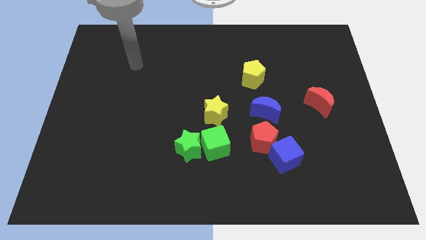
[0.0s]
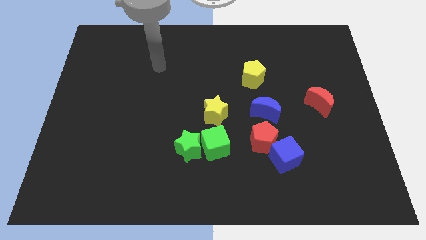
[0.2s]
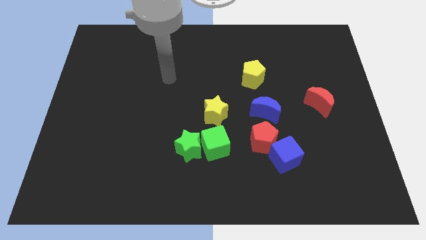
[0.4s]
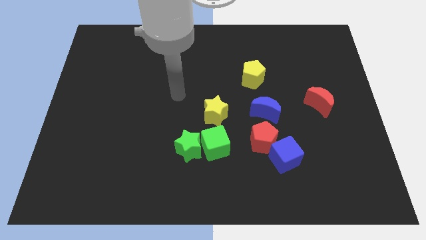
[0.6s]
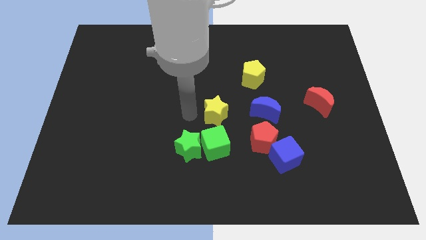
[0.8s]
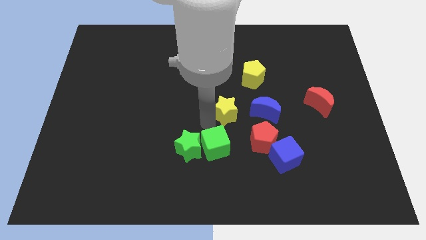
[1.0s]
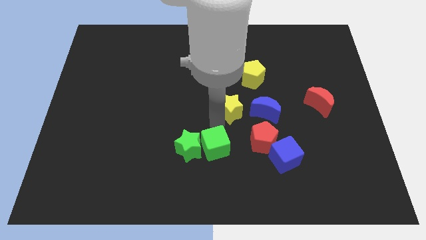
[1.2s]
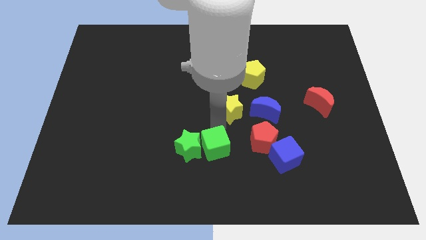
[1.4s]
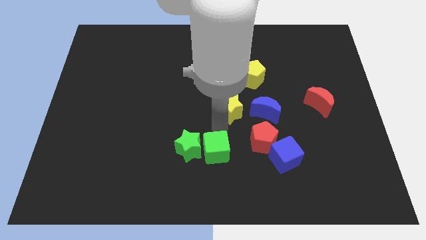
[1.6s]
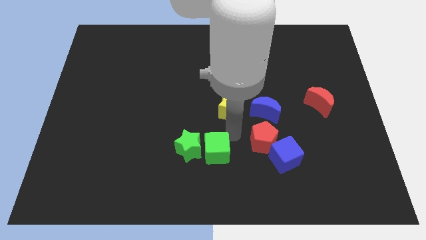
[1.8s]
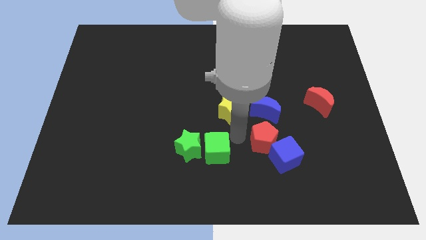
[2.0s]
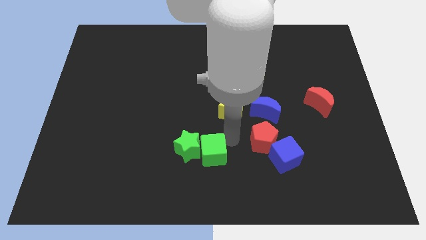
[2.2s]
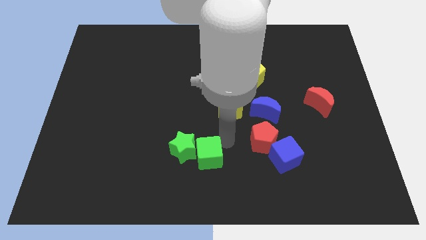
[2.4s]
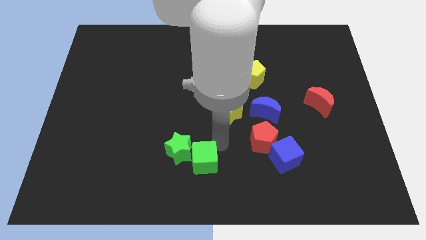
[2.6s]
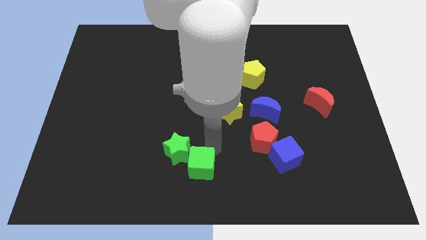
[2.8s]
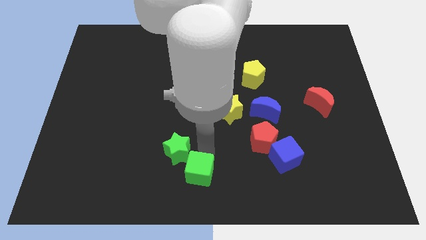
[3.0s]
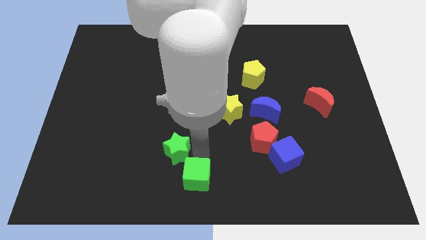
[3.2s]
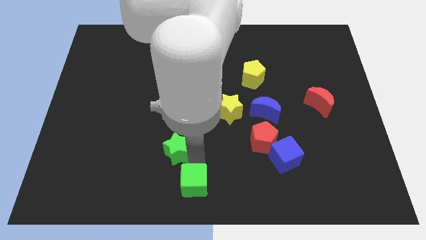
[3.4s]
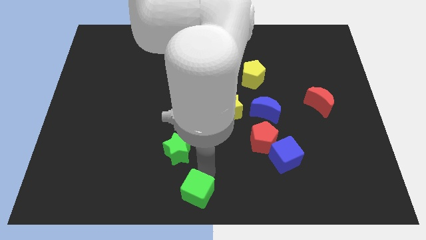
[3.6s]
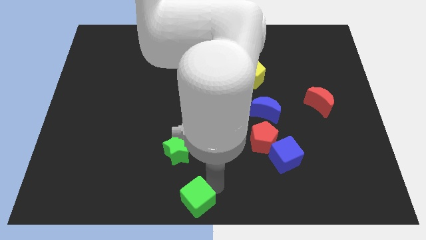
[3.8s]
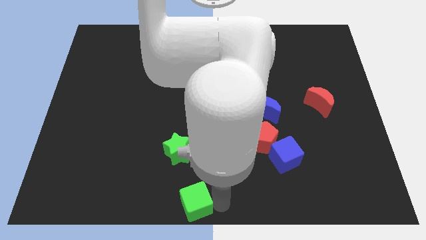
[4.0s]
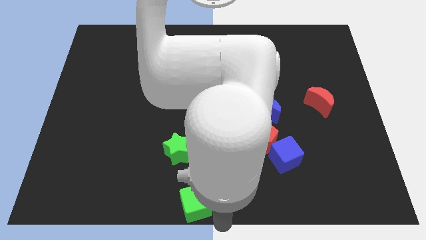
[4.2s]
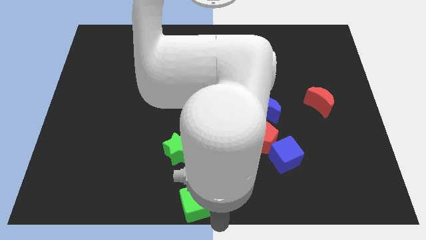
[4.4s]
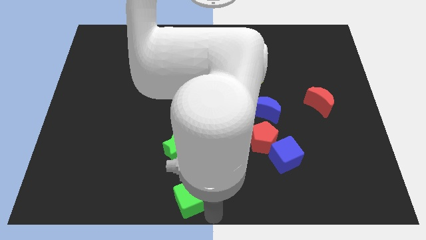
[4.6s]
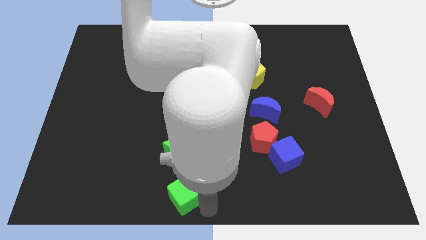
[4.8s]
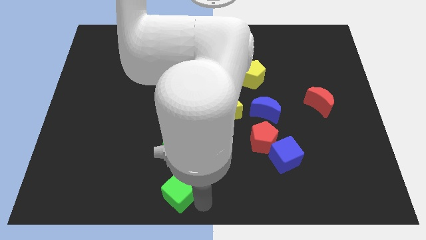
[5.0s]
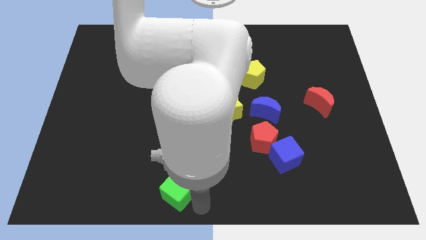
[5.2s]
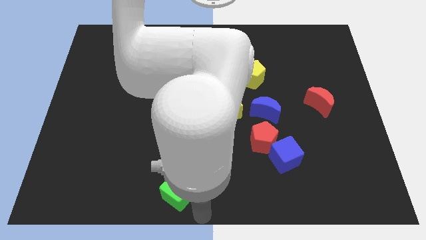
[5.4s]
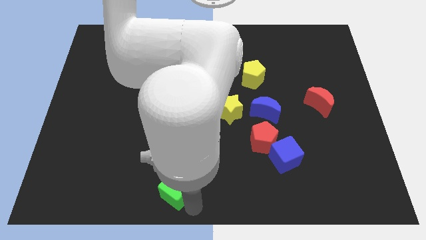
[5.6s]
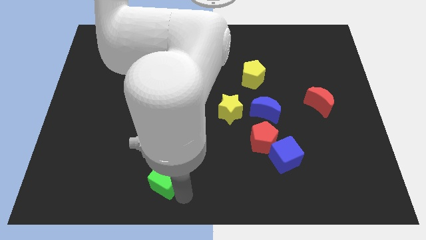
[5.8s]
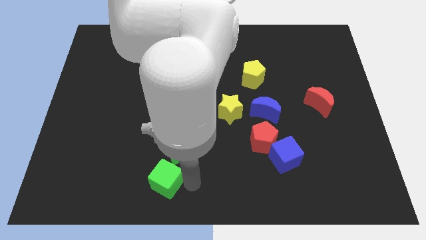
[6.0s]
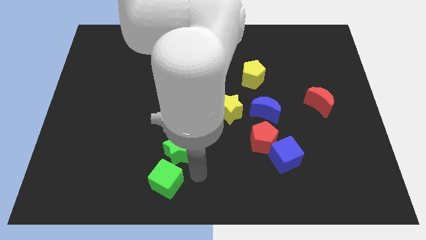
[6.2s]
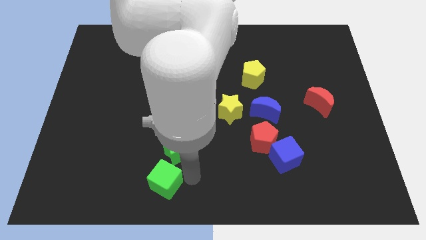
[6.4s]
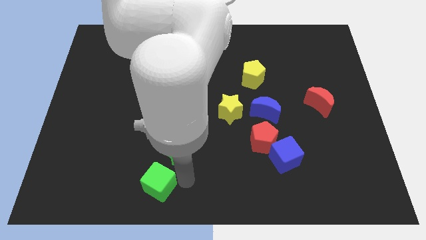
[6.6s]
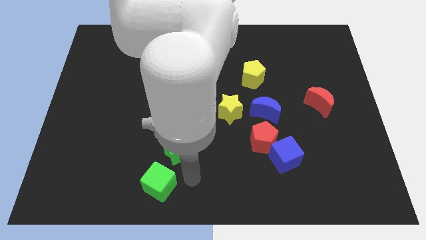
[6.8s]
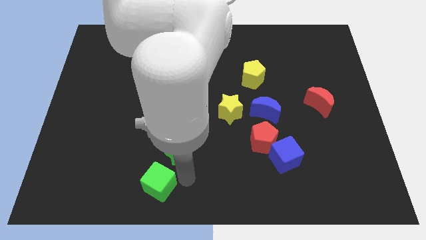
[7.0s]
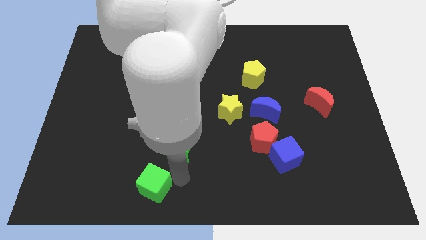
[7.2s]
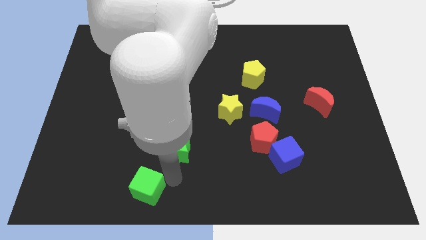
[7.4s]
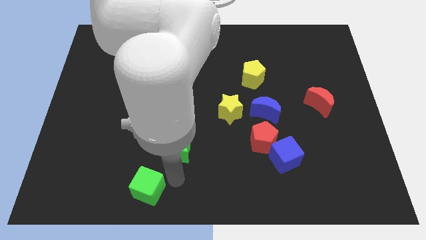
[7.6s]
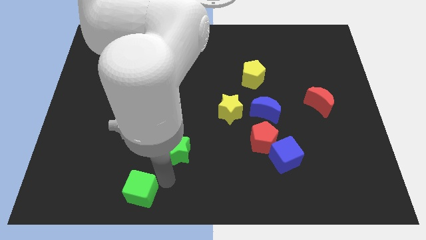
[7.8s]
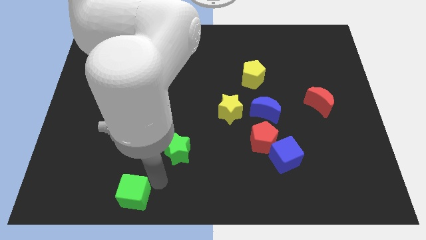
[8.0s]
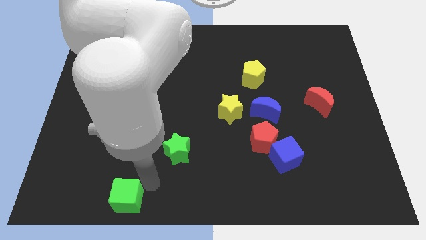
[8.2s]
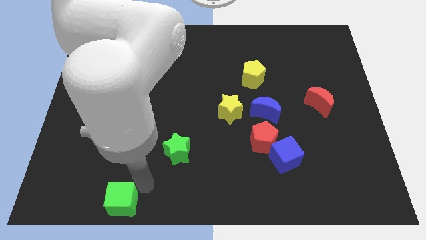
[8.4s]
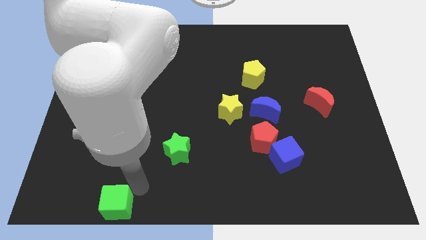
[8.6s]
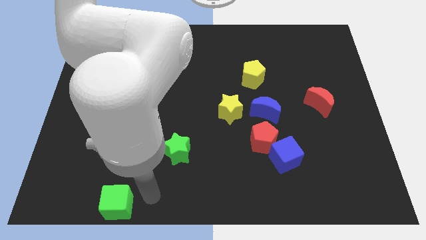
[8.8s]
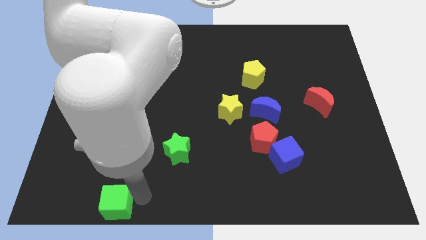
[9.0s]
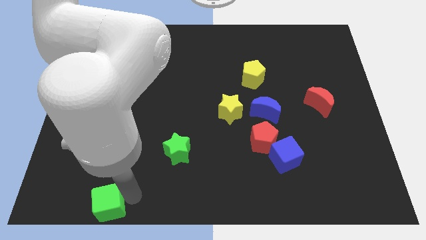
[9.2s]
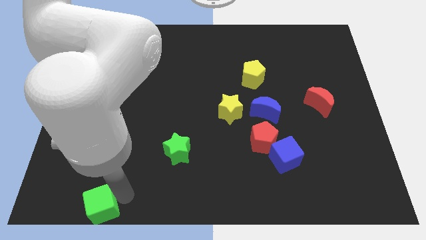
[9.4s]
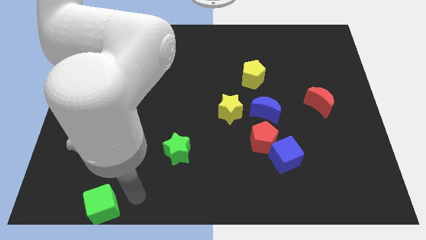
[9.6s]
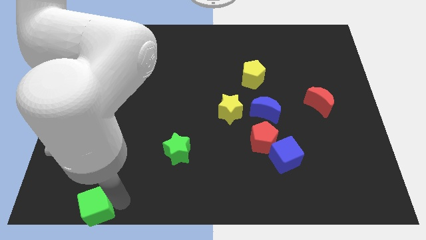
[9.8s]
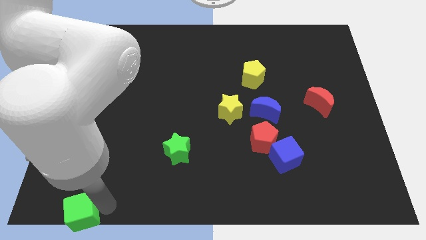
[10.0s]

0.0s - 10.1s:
put the green cube to the lower left corner
